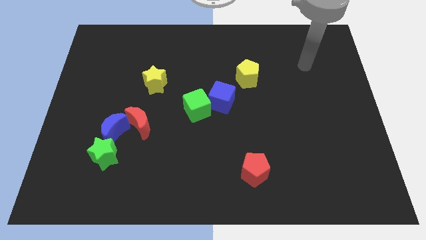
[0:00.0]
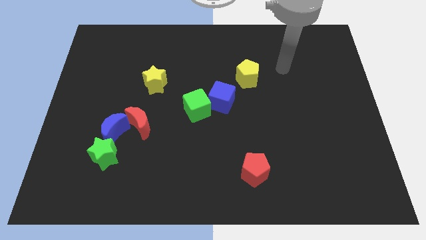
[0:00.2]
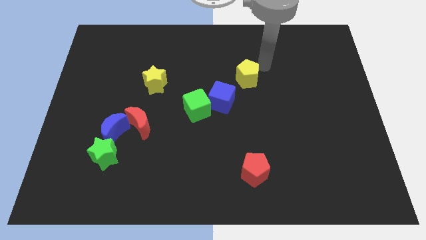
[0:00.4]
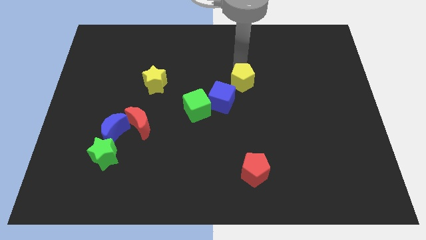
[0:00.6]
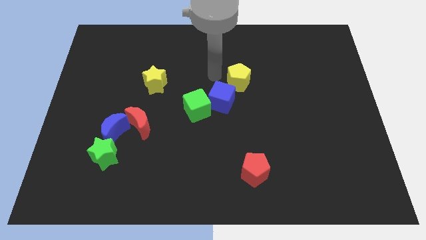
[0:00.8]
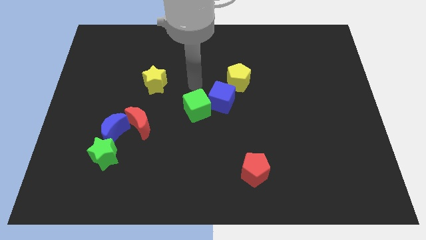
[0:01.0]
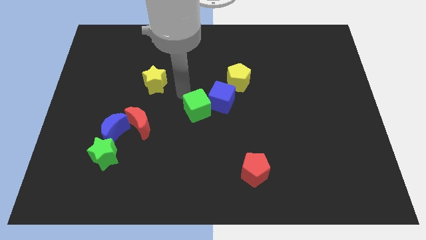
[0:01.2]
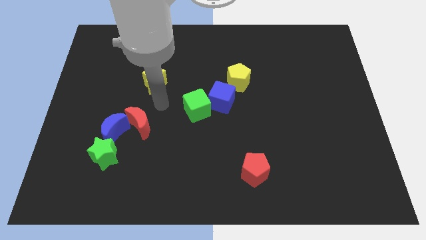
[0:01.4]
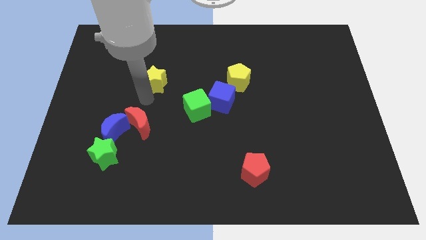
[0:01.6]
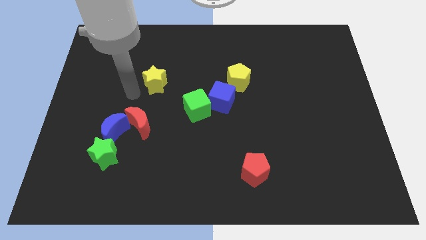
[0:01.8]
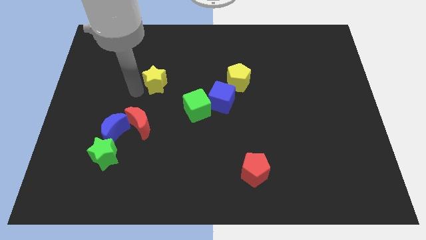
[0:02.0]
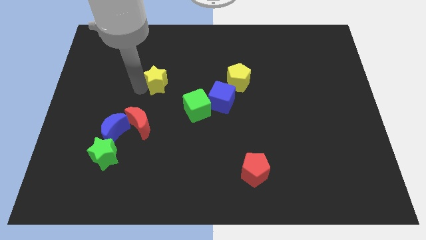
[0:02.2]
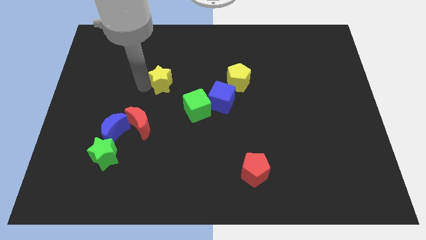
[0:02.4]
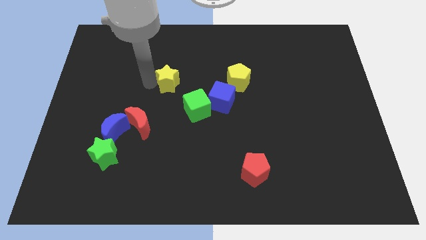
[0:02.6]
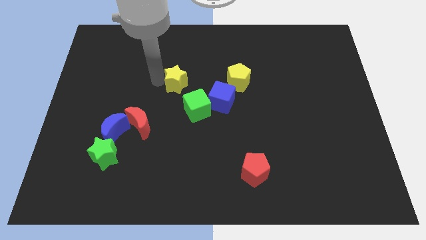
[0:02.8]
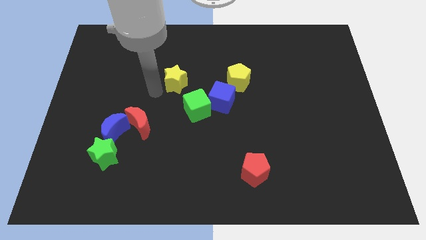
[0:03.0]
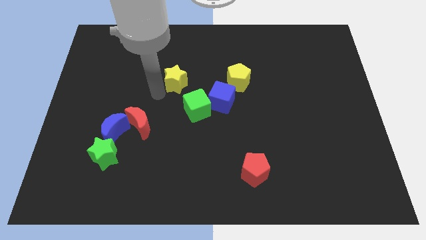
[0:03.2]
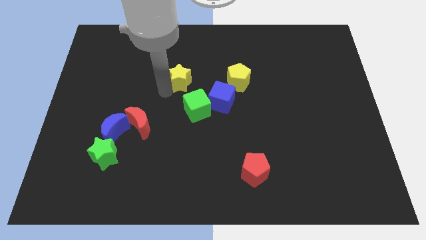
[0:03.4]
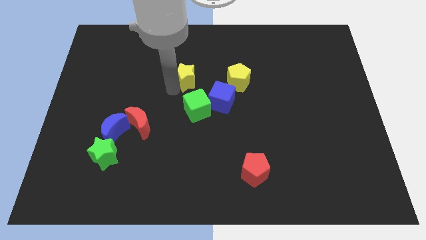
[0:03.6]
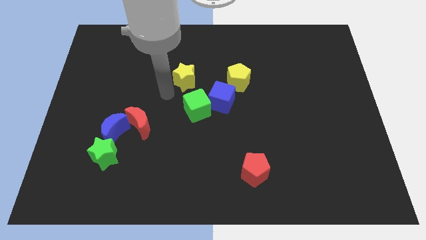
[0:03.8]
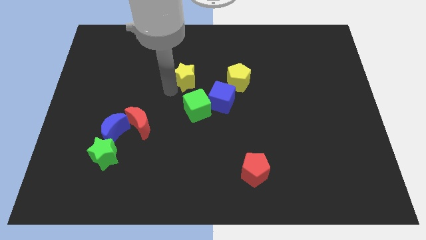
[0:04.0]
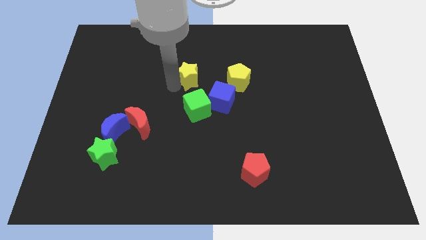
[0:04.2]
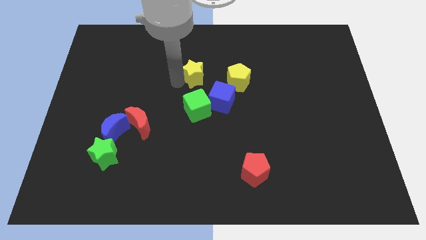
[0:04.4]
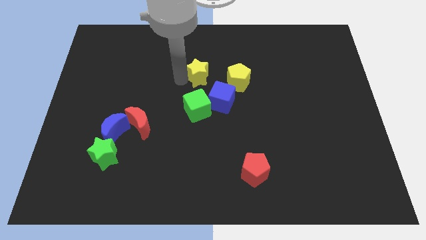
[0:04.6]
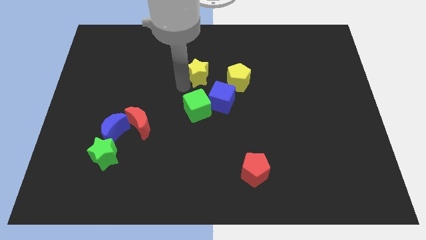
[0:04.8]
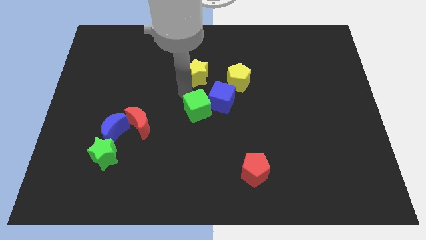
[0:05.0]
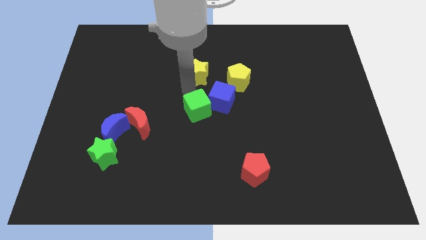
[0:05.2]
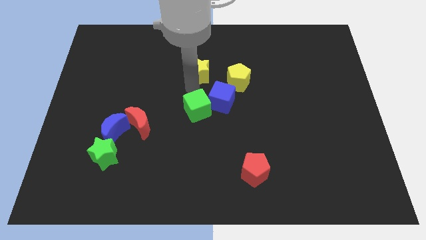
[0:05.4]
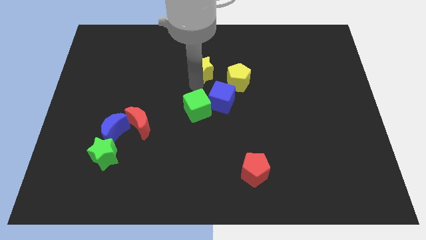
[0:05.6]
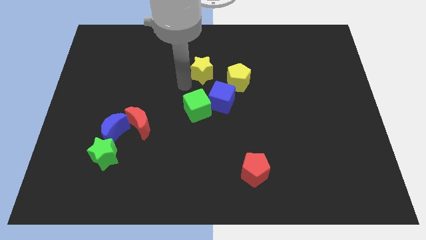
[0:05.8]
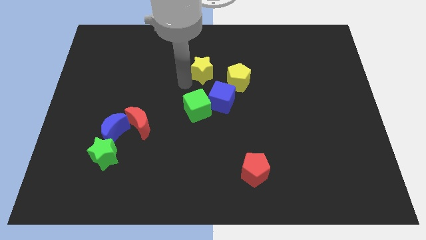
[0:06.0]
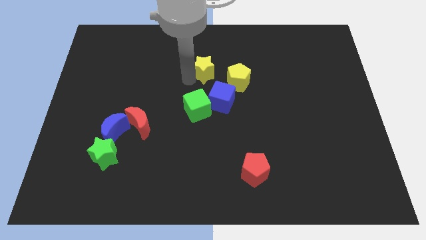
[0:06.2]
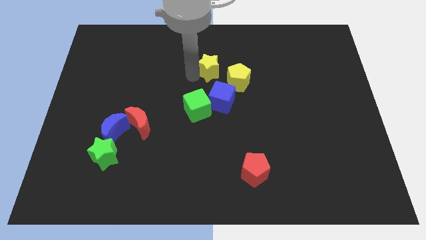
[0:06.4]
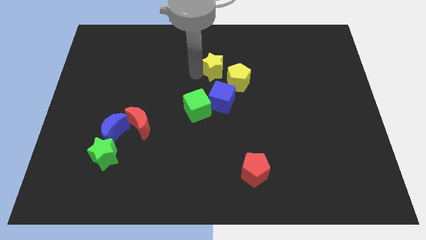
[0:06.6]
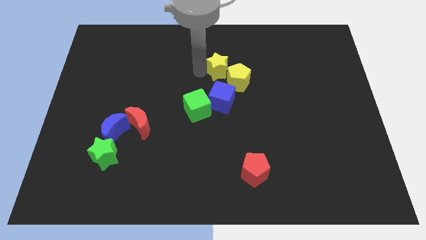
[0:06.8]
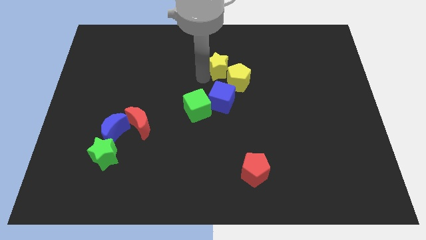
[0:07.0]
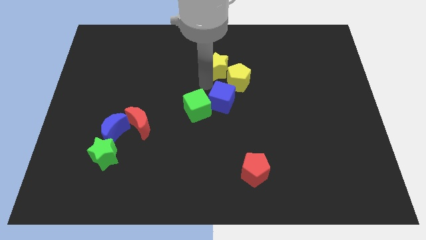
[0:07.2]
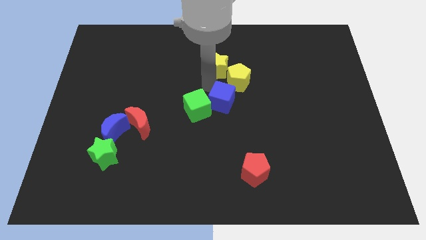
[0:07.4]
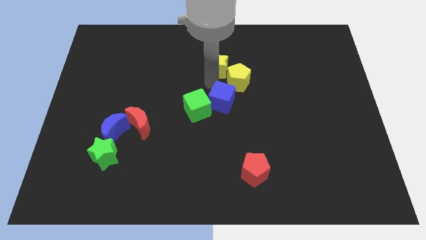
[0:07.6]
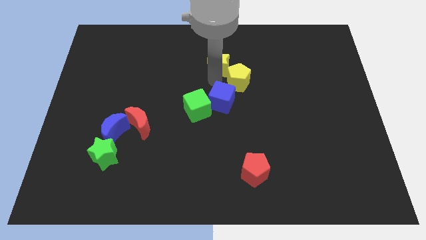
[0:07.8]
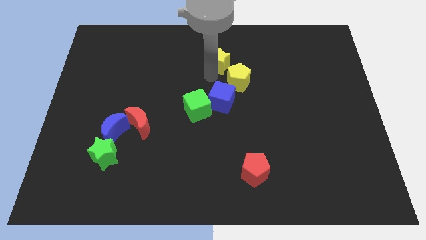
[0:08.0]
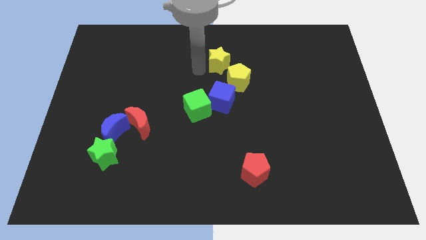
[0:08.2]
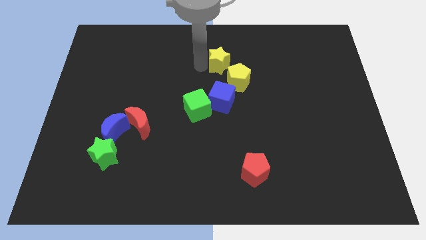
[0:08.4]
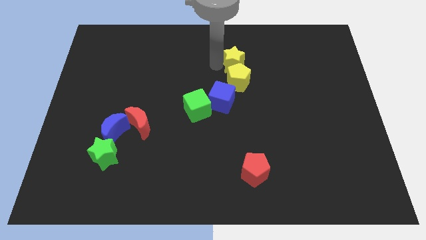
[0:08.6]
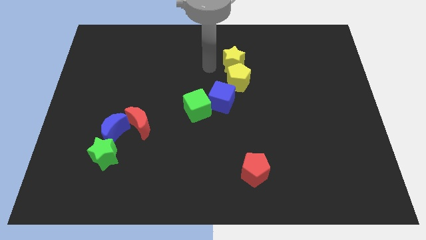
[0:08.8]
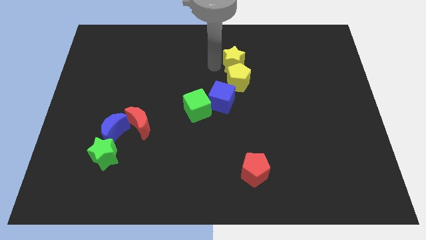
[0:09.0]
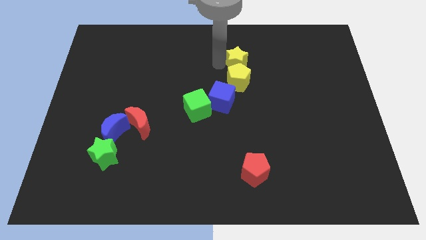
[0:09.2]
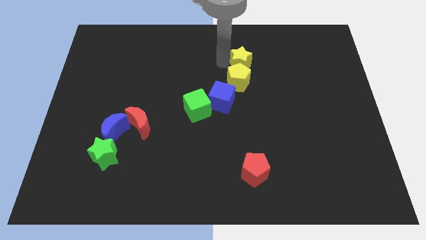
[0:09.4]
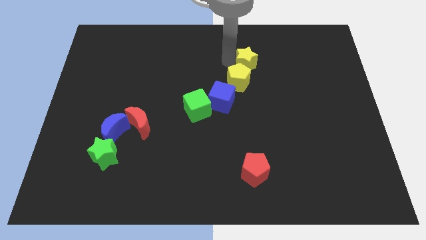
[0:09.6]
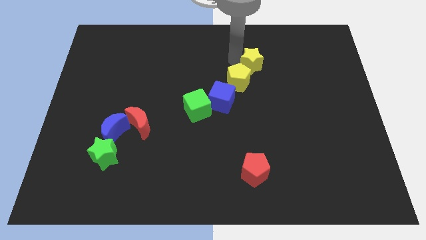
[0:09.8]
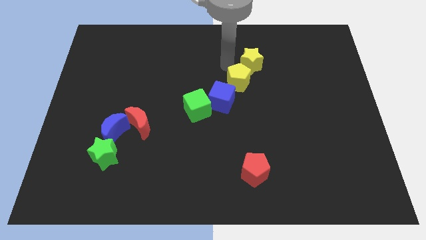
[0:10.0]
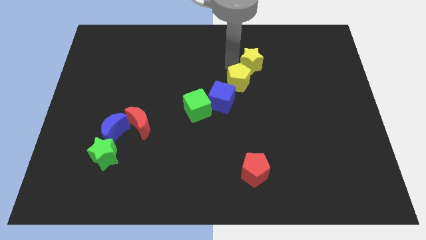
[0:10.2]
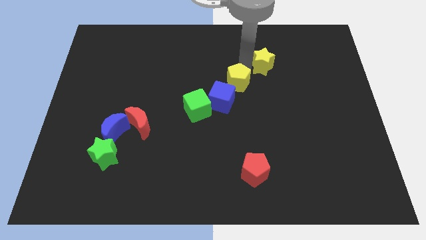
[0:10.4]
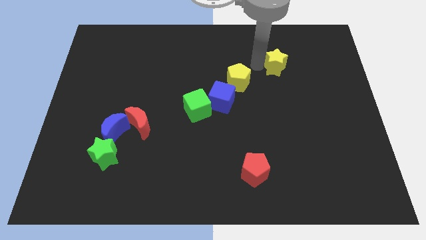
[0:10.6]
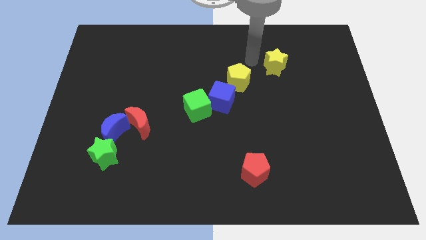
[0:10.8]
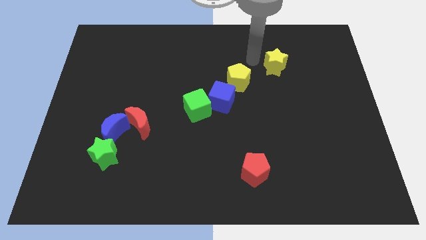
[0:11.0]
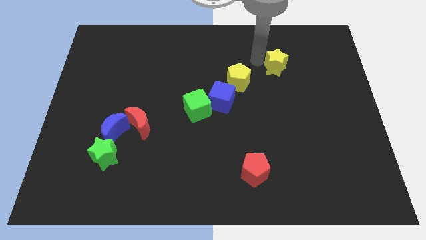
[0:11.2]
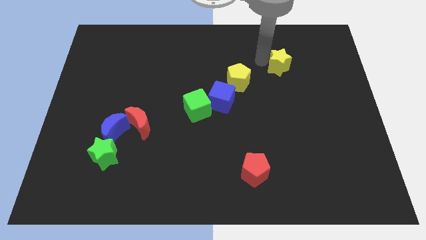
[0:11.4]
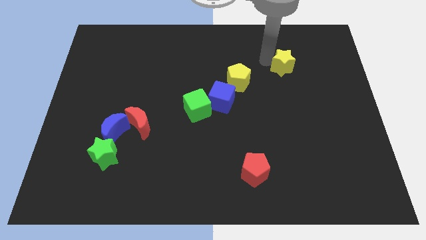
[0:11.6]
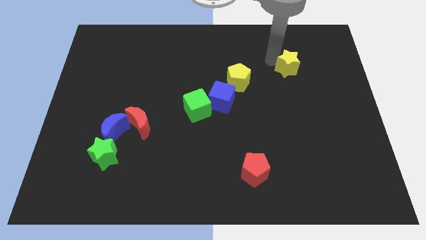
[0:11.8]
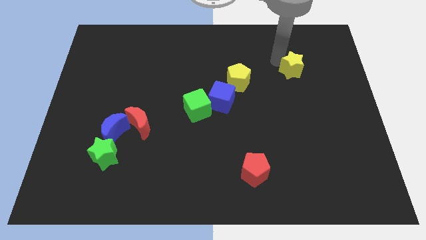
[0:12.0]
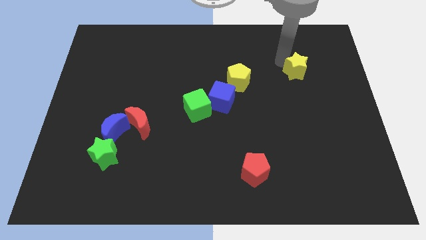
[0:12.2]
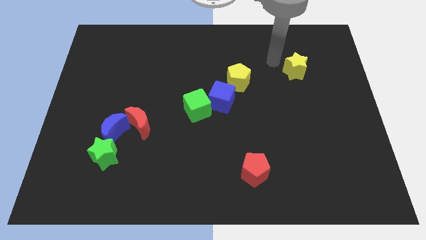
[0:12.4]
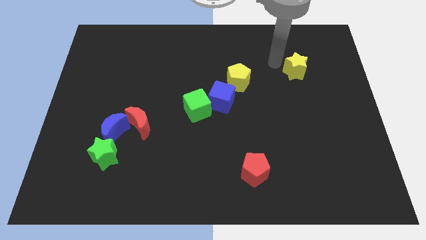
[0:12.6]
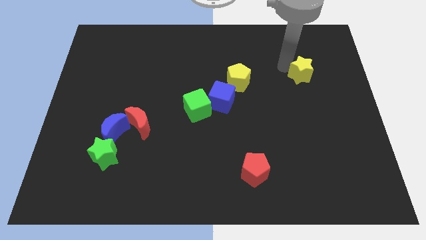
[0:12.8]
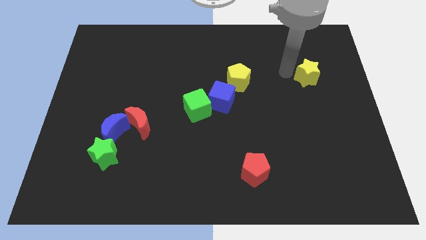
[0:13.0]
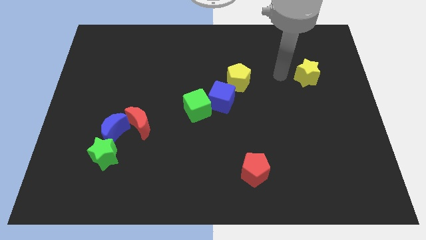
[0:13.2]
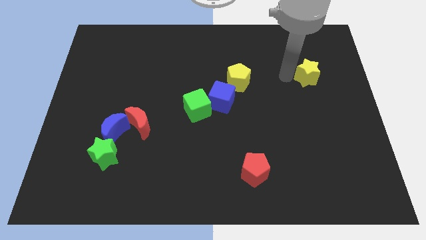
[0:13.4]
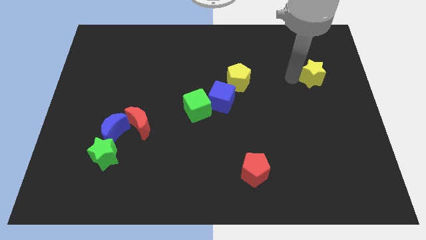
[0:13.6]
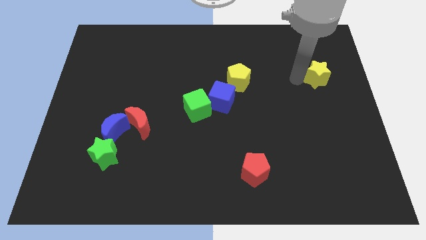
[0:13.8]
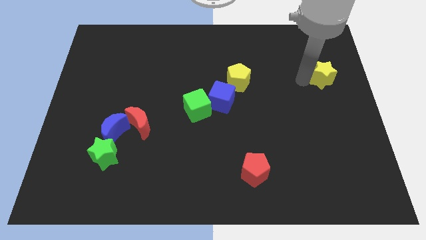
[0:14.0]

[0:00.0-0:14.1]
push the yellow star to the right side
